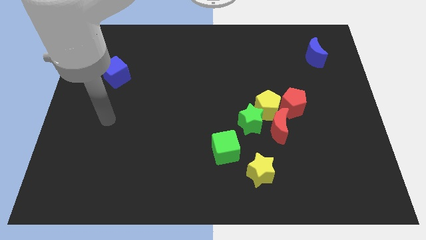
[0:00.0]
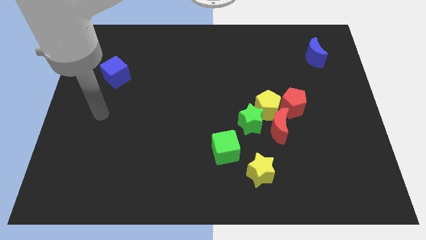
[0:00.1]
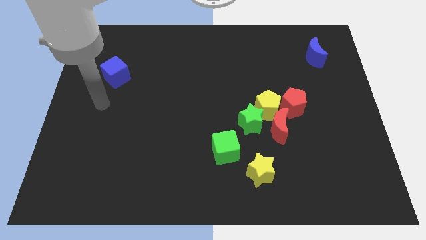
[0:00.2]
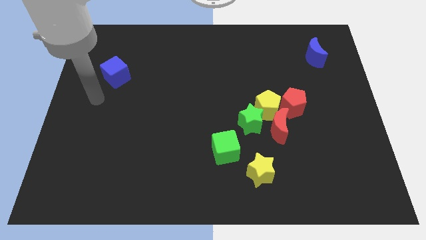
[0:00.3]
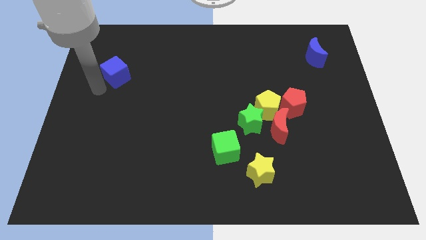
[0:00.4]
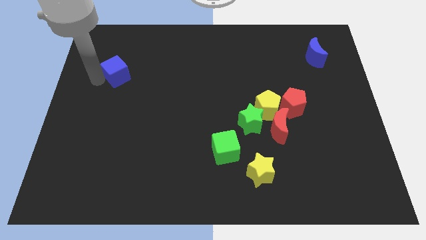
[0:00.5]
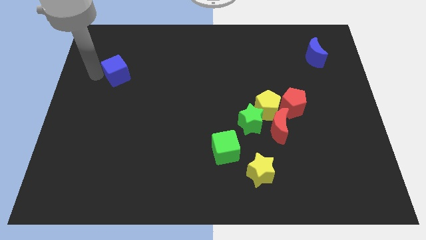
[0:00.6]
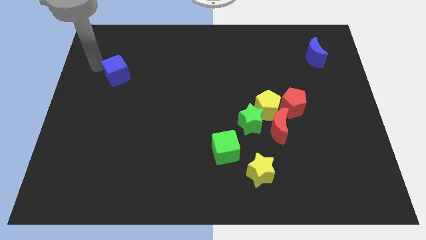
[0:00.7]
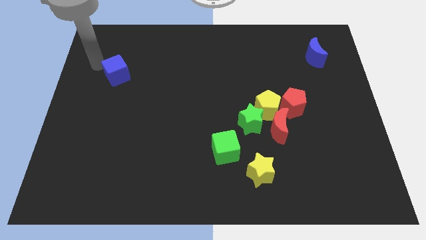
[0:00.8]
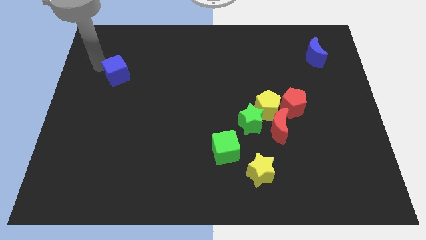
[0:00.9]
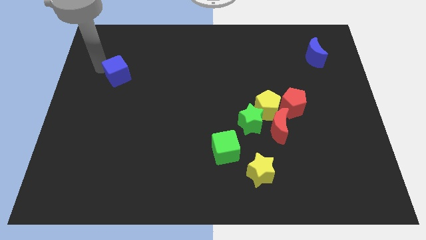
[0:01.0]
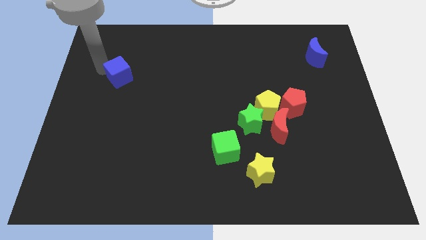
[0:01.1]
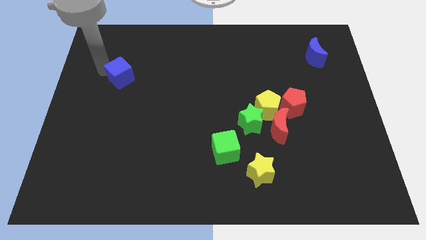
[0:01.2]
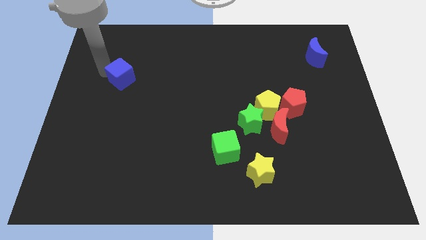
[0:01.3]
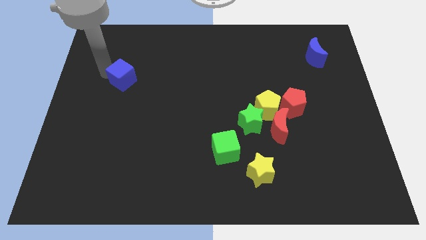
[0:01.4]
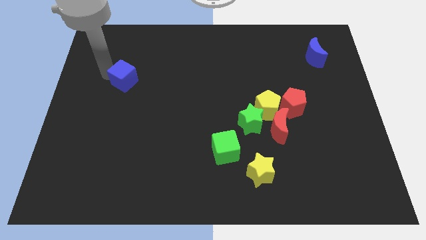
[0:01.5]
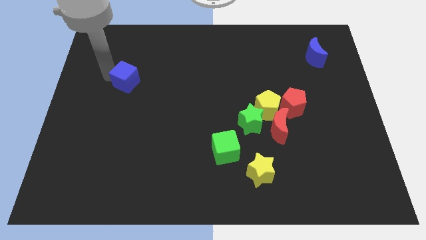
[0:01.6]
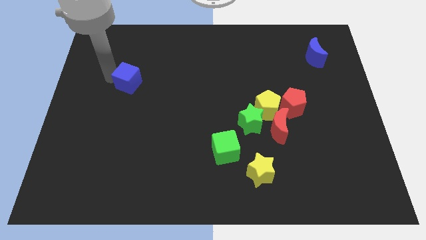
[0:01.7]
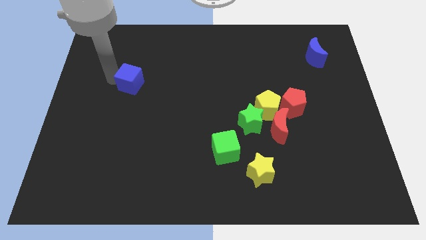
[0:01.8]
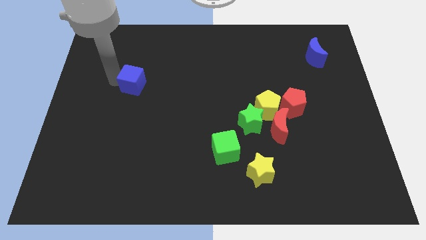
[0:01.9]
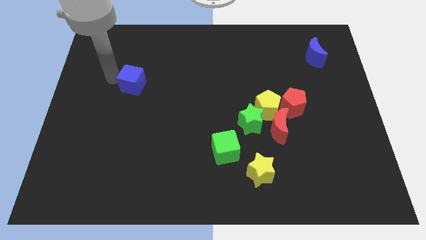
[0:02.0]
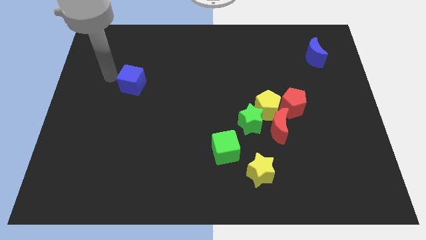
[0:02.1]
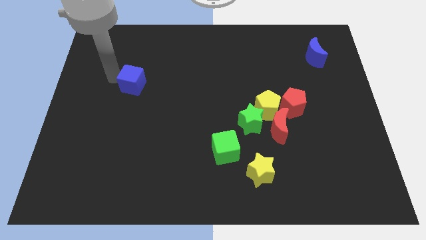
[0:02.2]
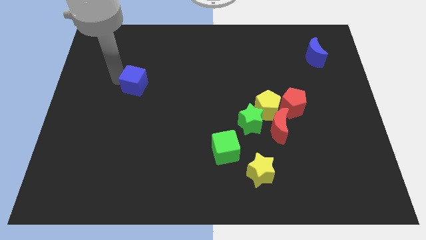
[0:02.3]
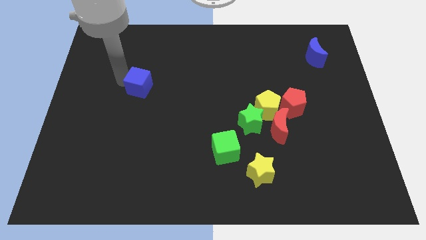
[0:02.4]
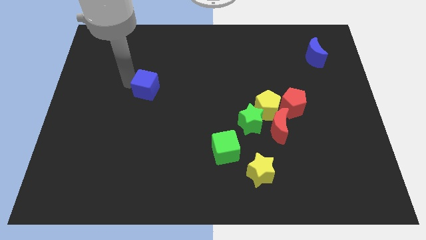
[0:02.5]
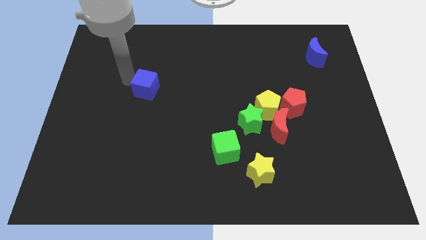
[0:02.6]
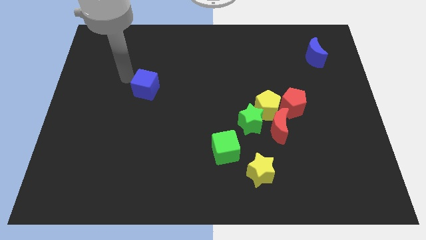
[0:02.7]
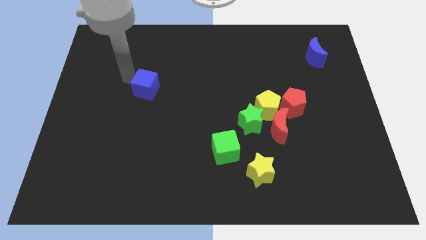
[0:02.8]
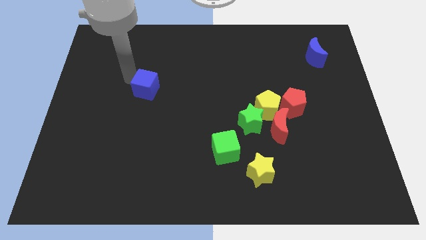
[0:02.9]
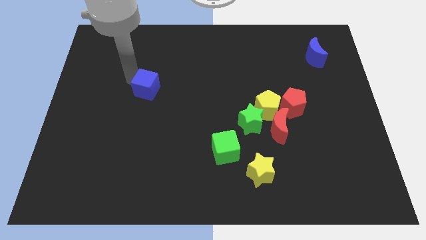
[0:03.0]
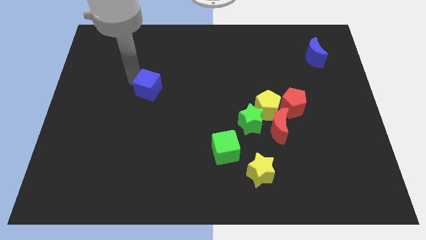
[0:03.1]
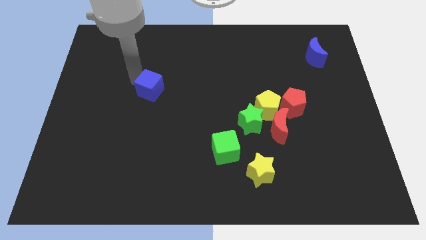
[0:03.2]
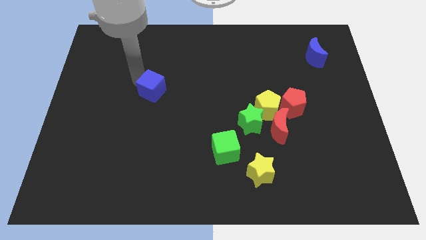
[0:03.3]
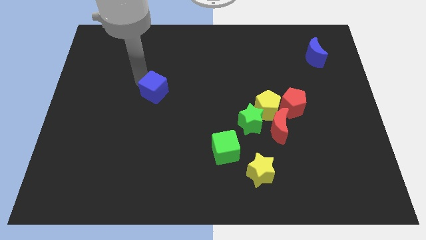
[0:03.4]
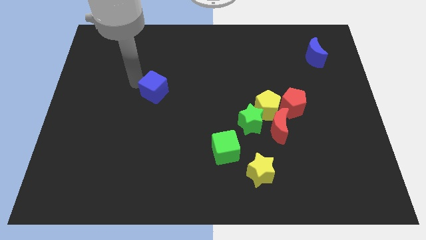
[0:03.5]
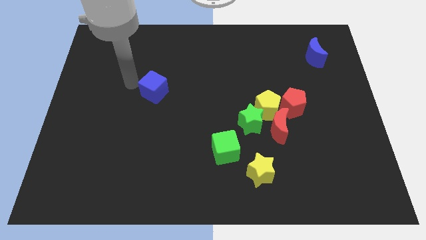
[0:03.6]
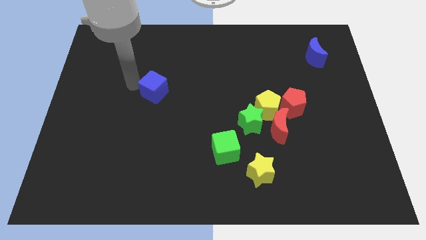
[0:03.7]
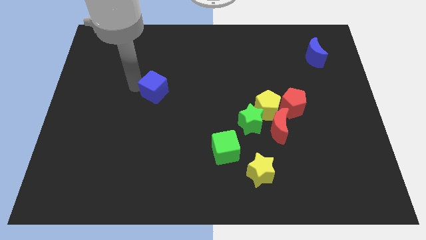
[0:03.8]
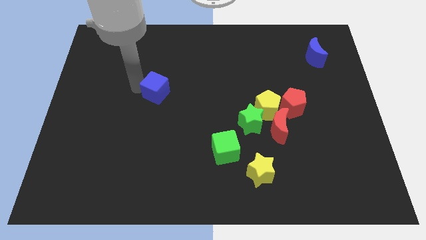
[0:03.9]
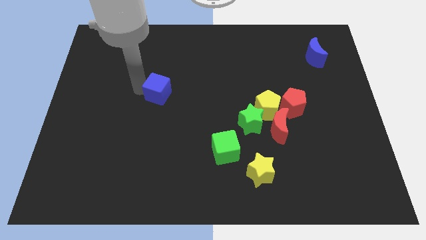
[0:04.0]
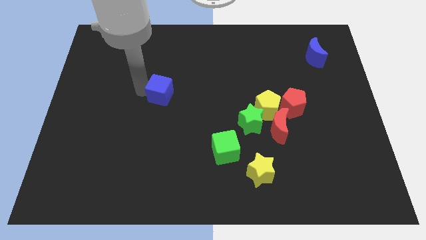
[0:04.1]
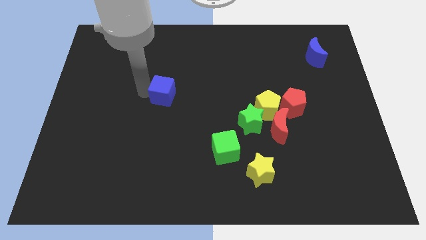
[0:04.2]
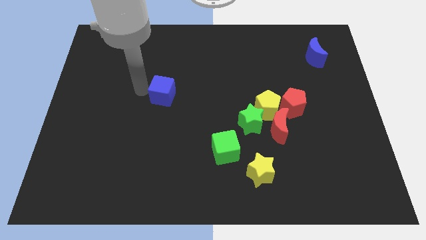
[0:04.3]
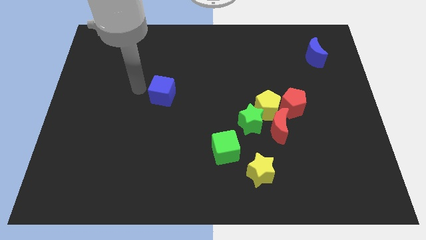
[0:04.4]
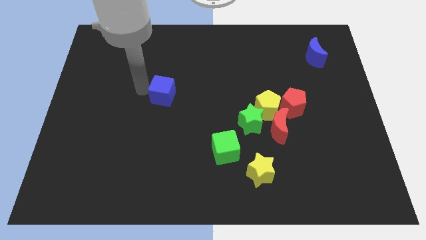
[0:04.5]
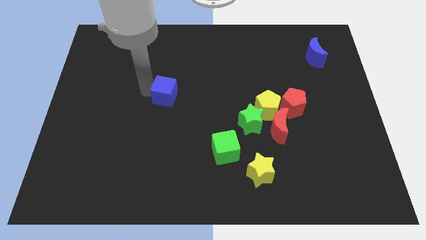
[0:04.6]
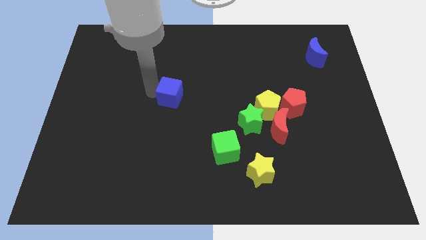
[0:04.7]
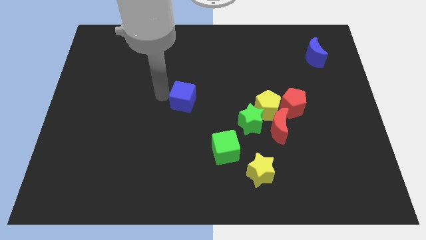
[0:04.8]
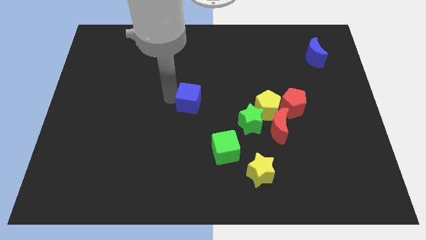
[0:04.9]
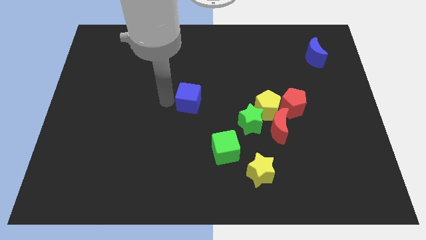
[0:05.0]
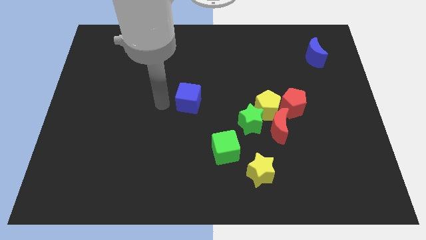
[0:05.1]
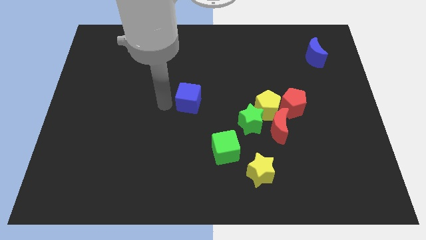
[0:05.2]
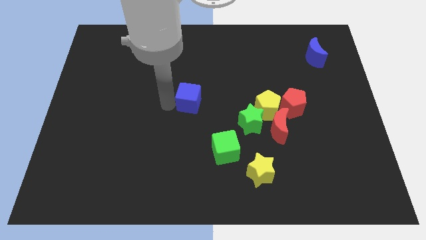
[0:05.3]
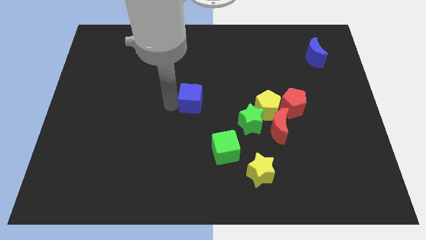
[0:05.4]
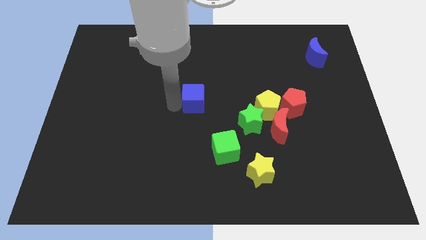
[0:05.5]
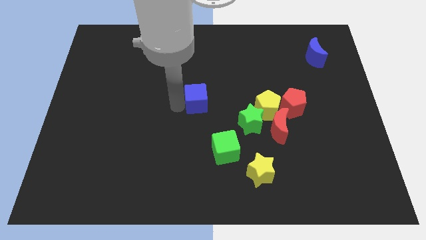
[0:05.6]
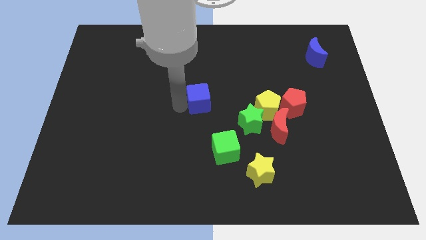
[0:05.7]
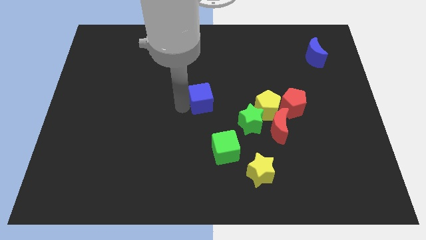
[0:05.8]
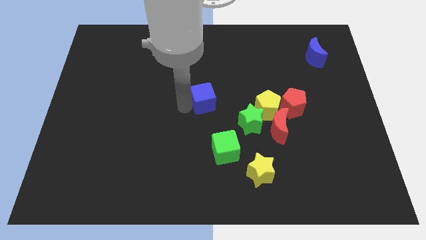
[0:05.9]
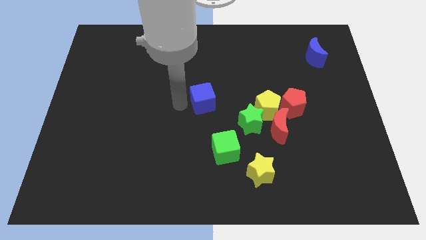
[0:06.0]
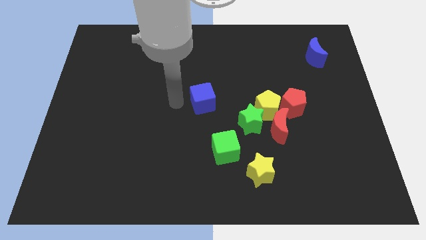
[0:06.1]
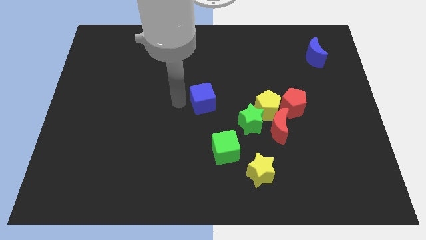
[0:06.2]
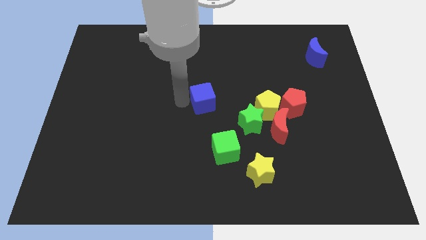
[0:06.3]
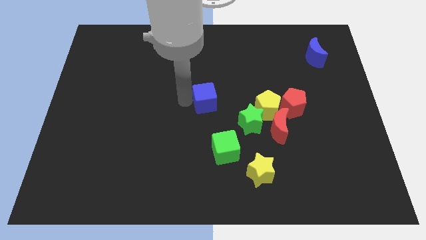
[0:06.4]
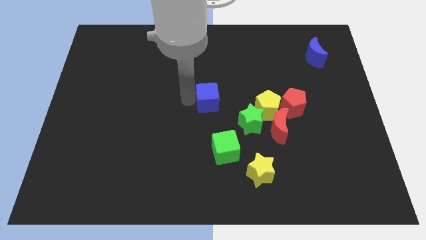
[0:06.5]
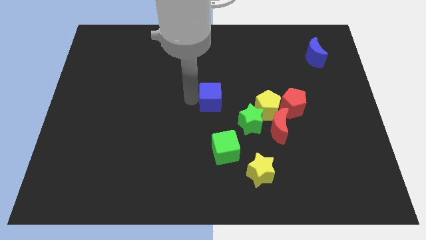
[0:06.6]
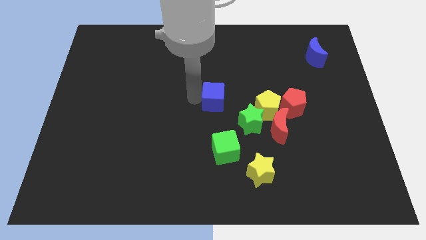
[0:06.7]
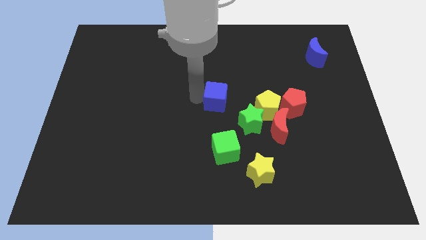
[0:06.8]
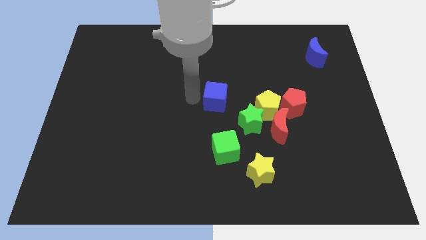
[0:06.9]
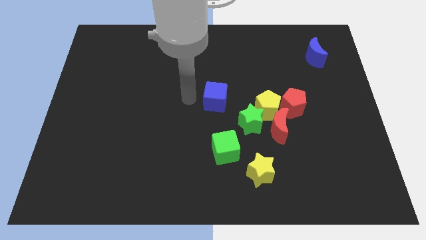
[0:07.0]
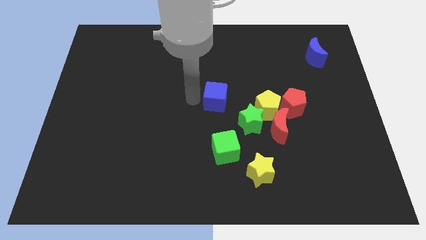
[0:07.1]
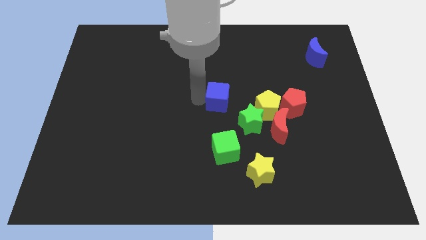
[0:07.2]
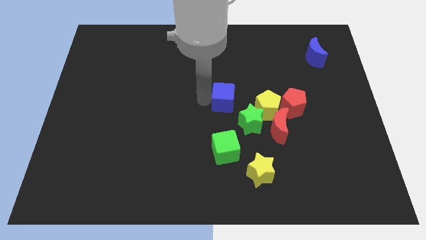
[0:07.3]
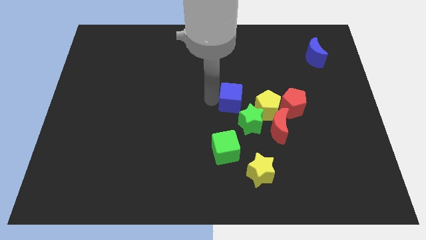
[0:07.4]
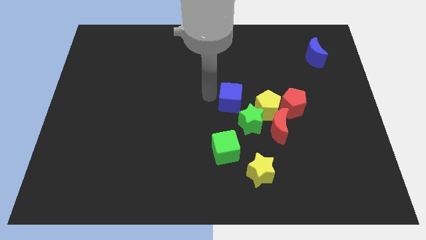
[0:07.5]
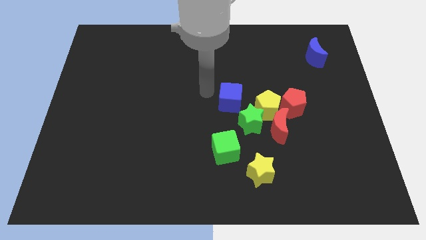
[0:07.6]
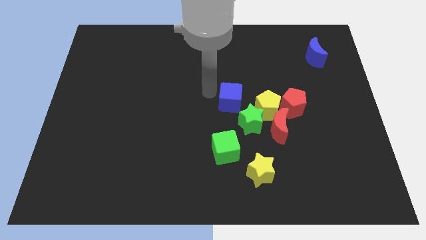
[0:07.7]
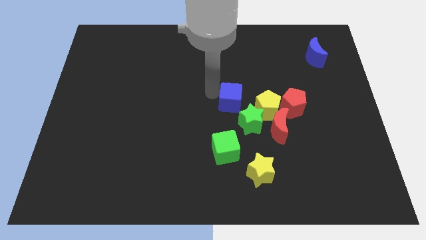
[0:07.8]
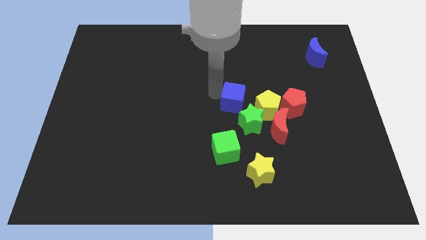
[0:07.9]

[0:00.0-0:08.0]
push the blue cube diagonally up and to the left of the red moon
